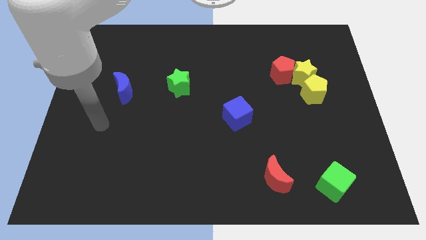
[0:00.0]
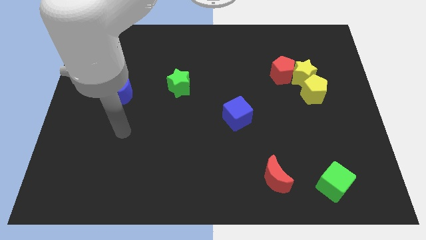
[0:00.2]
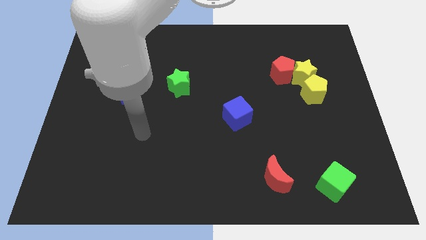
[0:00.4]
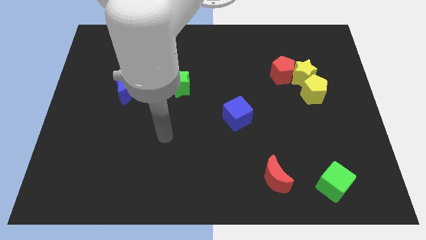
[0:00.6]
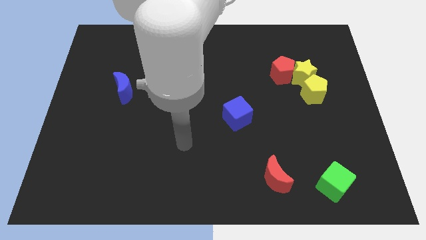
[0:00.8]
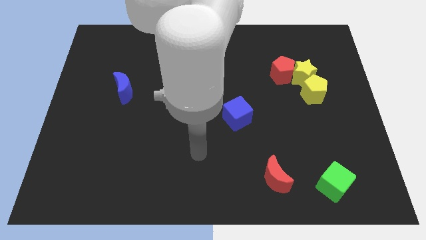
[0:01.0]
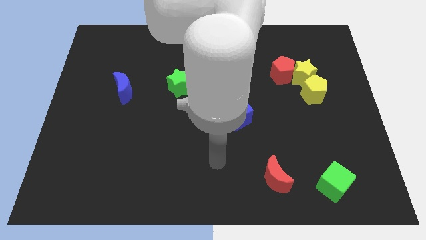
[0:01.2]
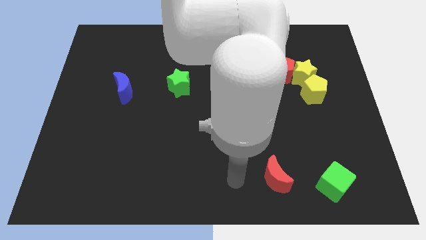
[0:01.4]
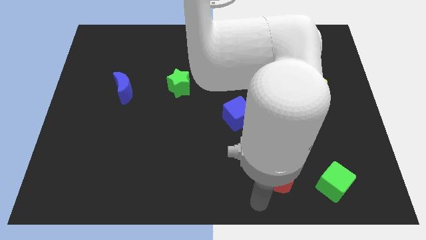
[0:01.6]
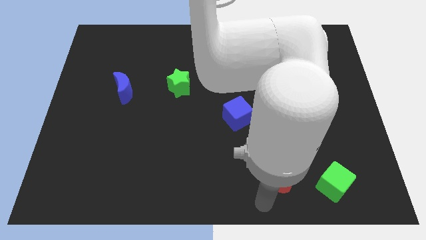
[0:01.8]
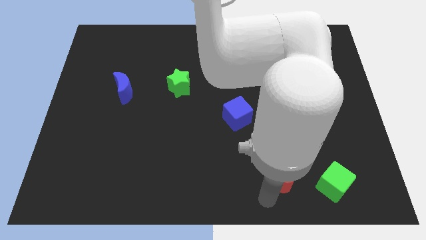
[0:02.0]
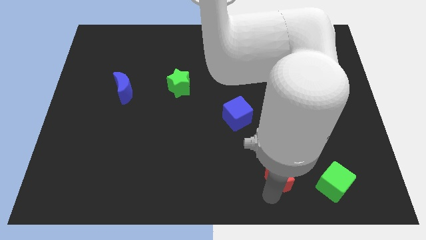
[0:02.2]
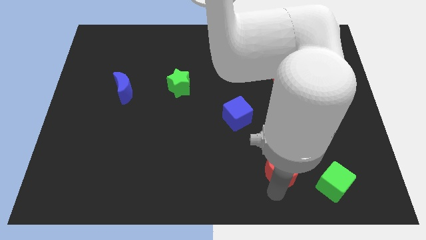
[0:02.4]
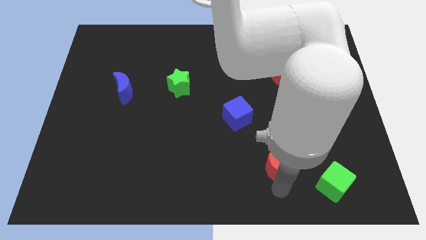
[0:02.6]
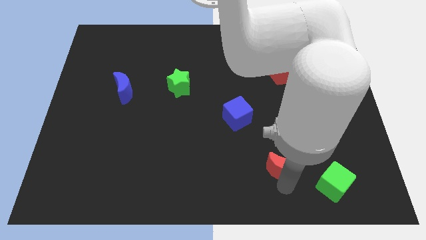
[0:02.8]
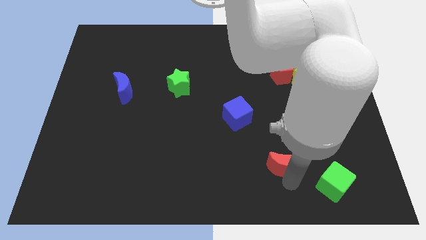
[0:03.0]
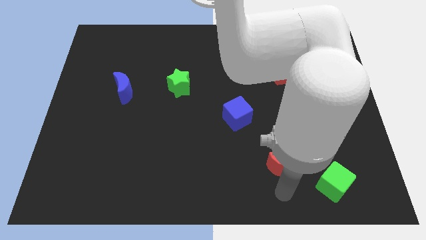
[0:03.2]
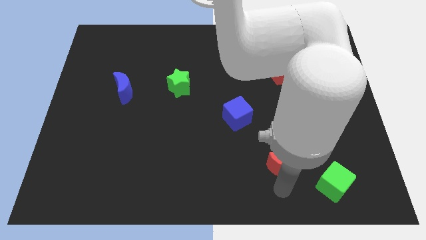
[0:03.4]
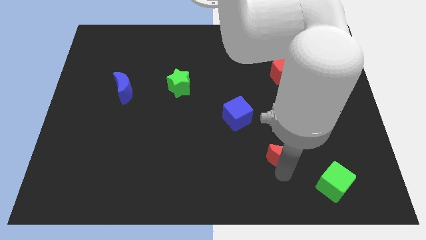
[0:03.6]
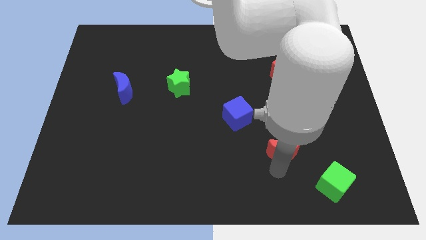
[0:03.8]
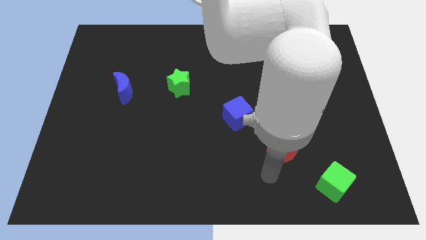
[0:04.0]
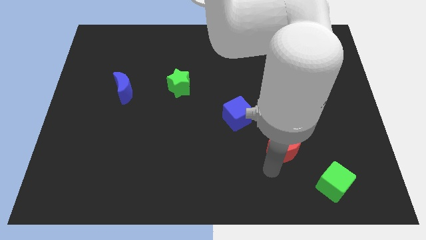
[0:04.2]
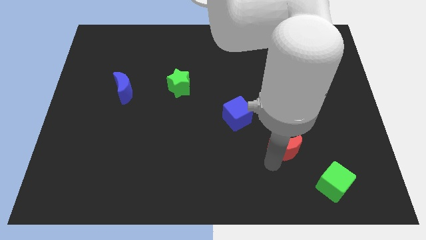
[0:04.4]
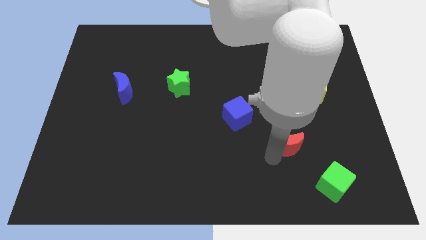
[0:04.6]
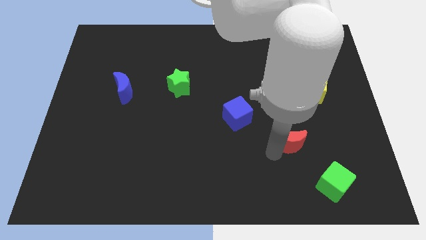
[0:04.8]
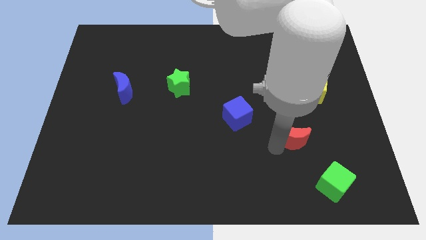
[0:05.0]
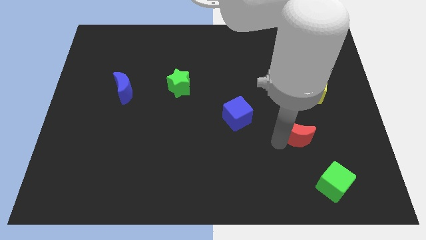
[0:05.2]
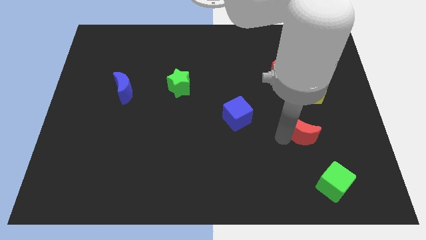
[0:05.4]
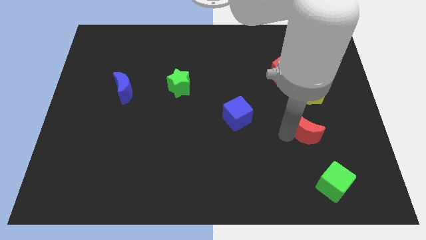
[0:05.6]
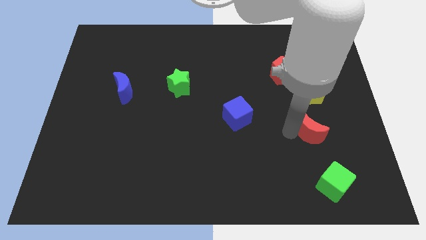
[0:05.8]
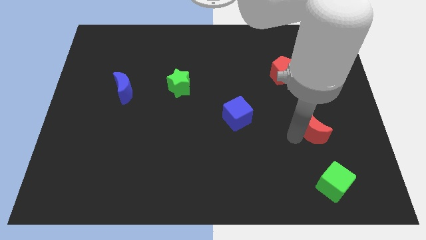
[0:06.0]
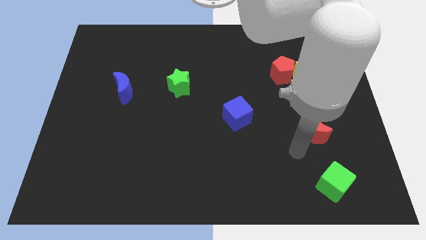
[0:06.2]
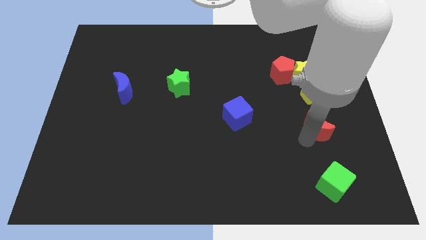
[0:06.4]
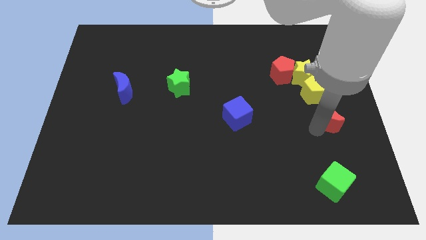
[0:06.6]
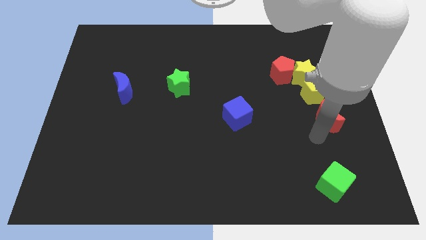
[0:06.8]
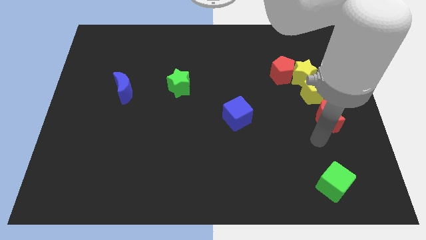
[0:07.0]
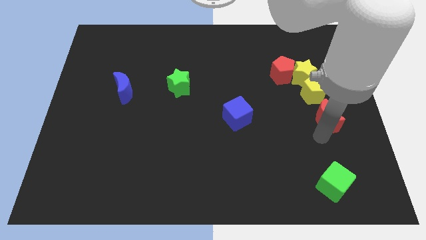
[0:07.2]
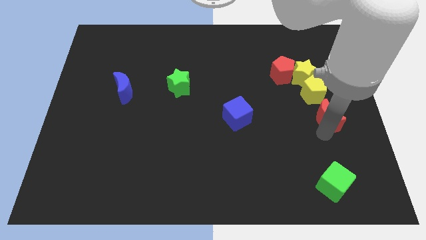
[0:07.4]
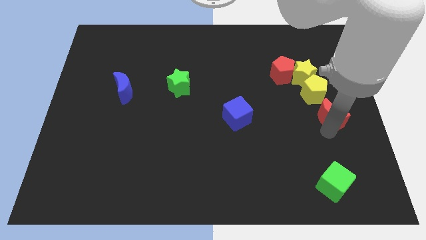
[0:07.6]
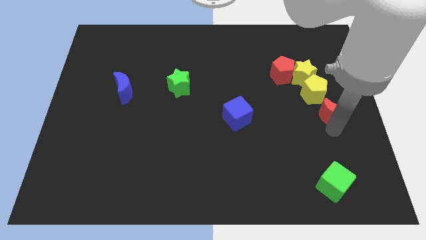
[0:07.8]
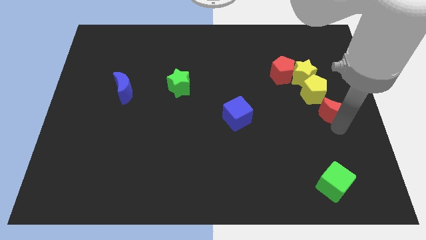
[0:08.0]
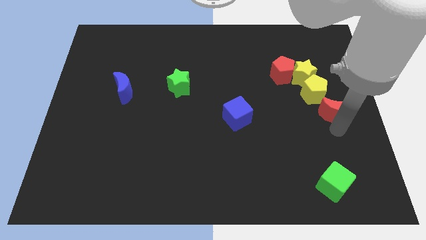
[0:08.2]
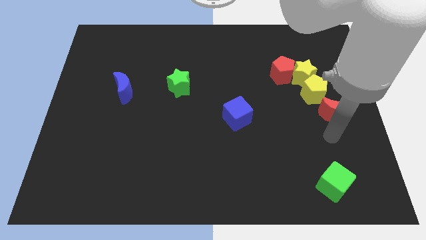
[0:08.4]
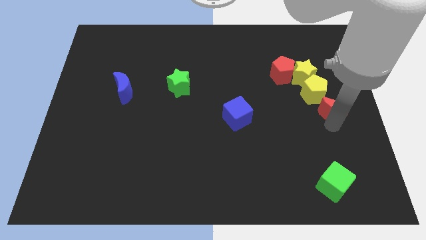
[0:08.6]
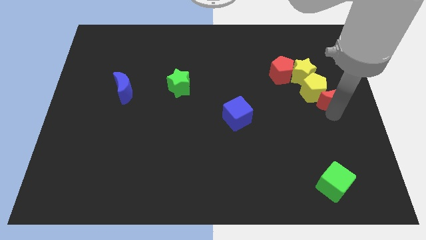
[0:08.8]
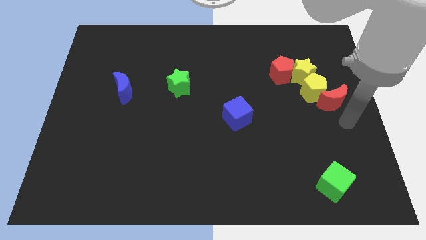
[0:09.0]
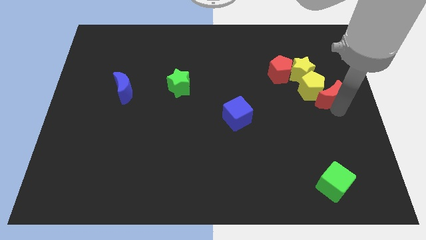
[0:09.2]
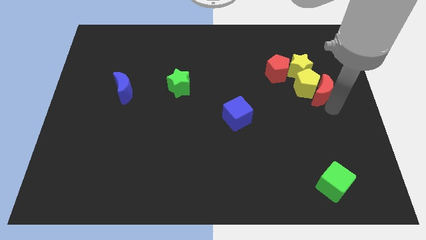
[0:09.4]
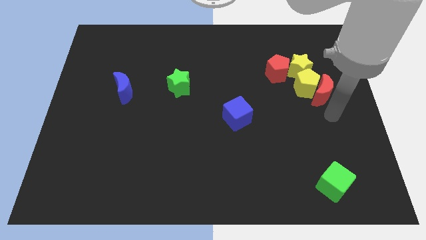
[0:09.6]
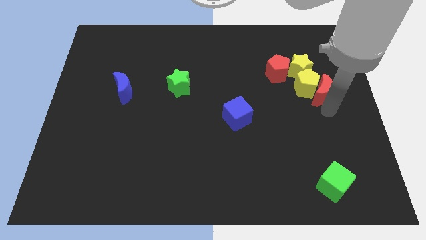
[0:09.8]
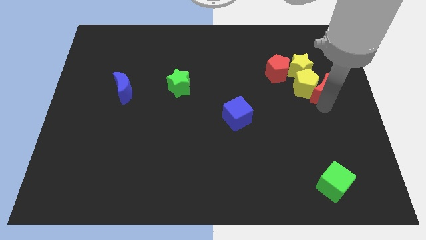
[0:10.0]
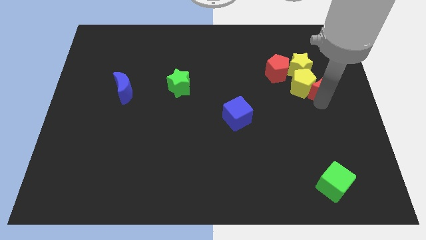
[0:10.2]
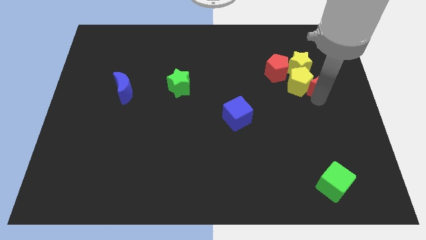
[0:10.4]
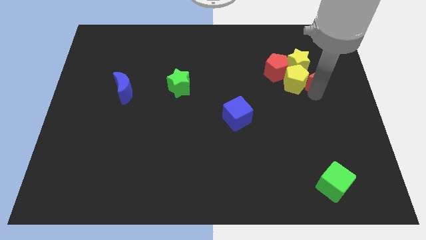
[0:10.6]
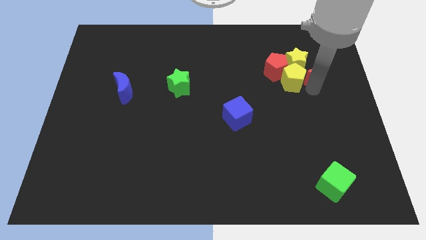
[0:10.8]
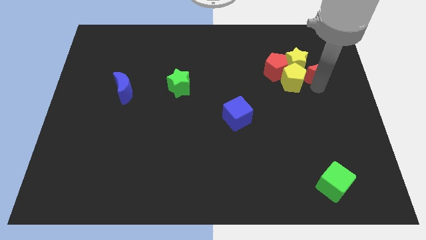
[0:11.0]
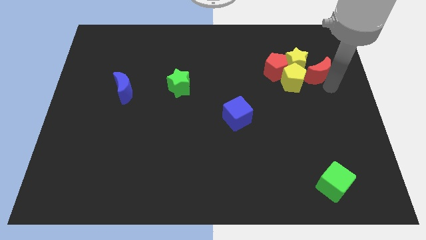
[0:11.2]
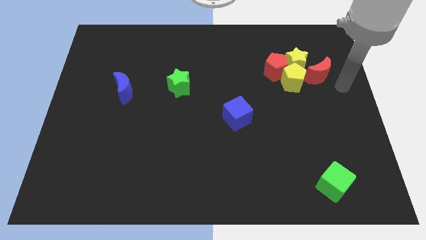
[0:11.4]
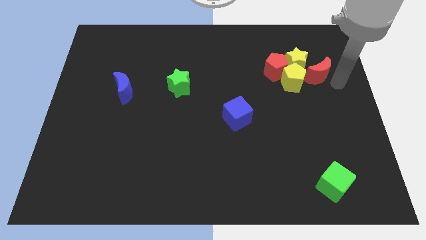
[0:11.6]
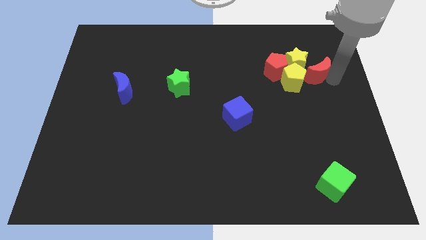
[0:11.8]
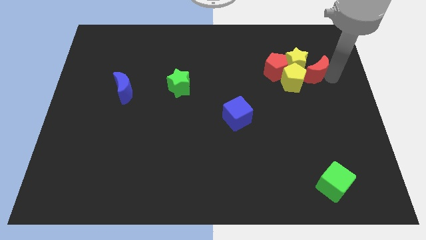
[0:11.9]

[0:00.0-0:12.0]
slide the red moon to the yellow star

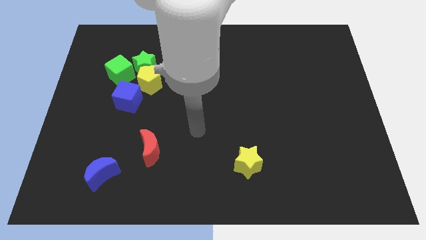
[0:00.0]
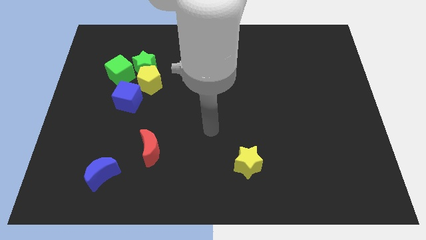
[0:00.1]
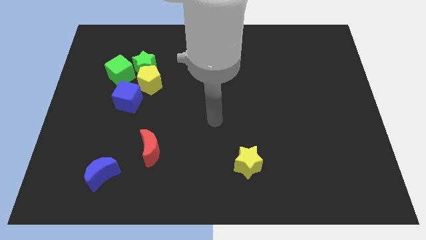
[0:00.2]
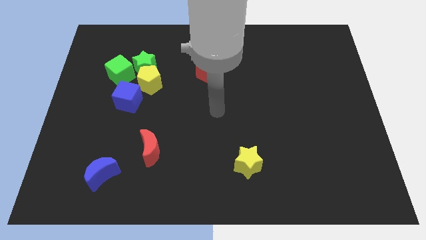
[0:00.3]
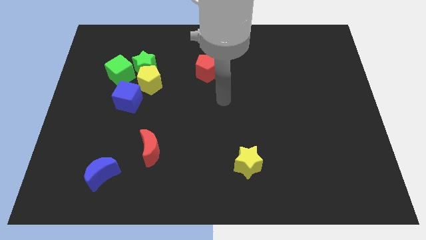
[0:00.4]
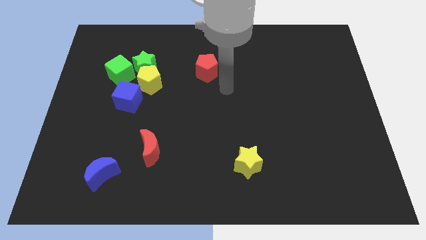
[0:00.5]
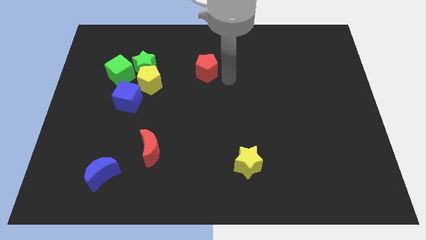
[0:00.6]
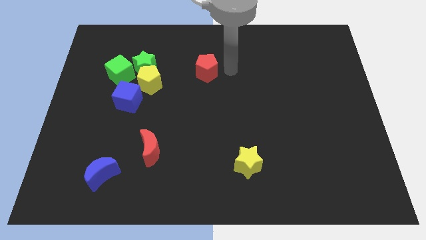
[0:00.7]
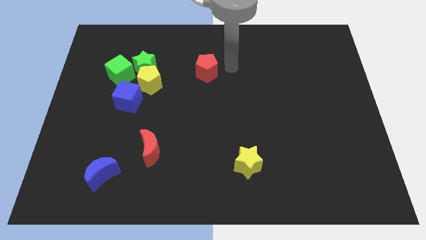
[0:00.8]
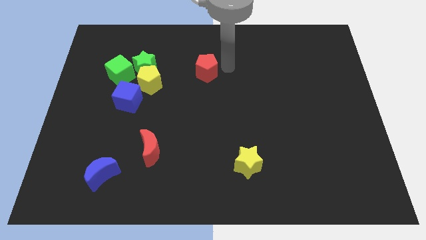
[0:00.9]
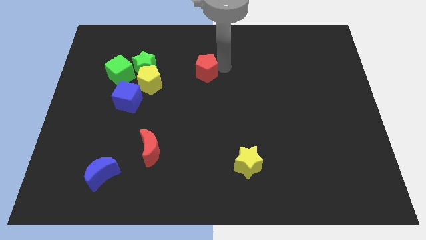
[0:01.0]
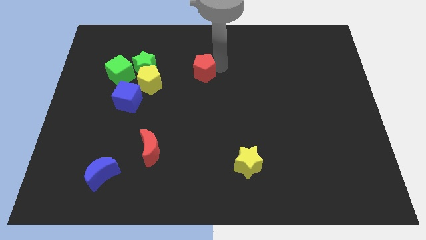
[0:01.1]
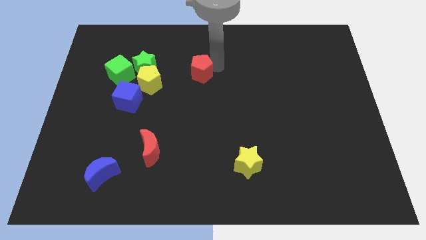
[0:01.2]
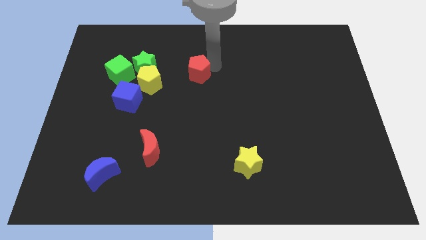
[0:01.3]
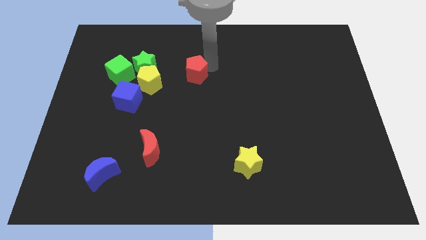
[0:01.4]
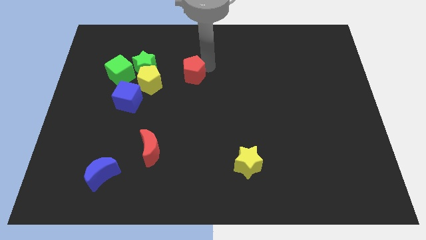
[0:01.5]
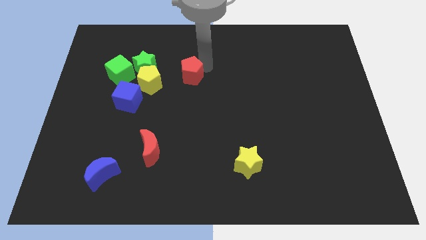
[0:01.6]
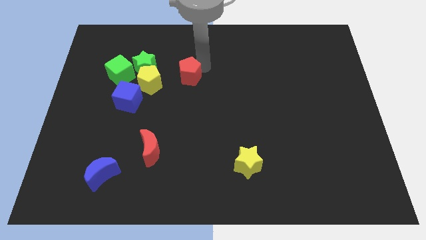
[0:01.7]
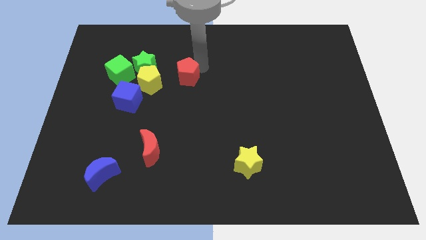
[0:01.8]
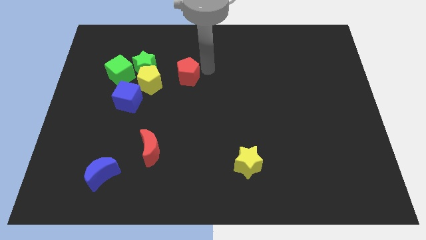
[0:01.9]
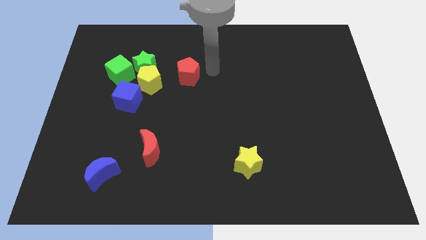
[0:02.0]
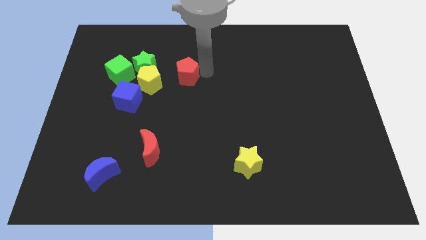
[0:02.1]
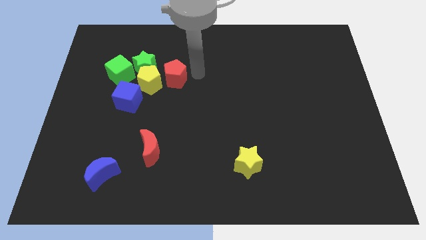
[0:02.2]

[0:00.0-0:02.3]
move the red pentagon to the yellow pentagon
